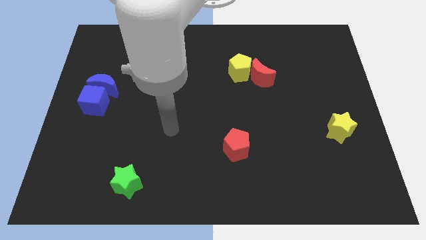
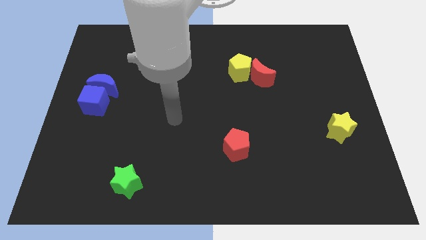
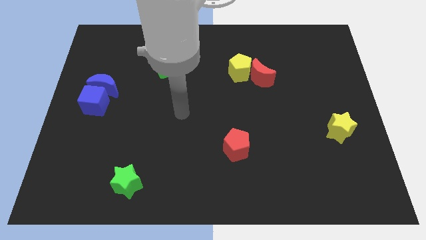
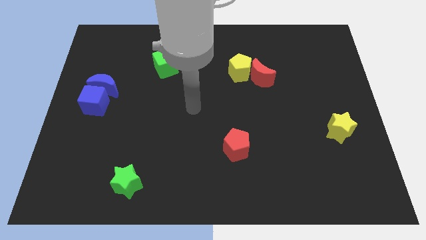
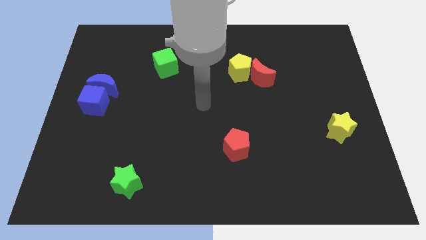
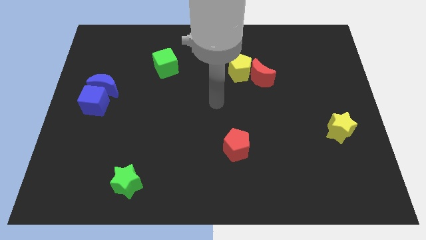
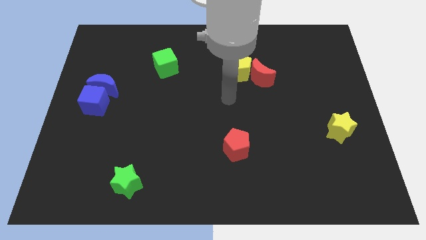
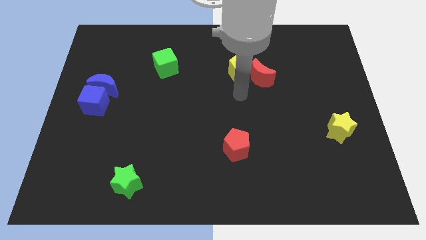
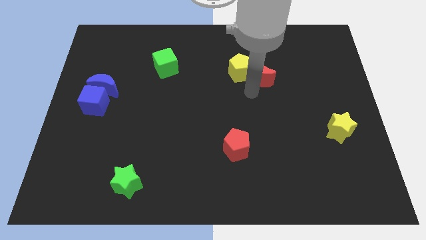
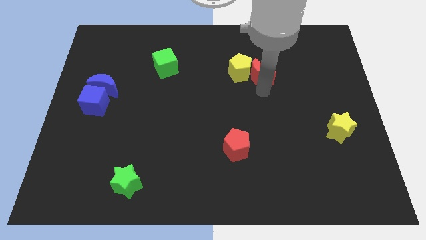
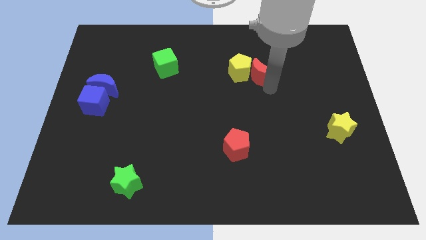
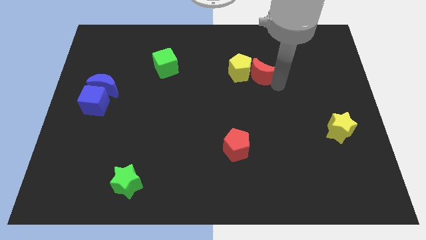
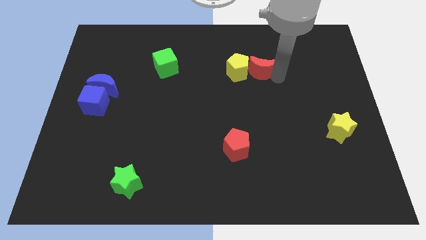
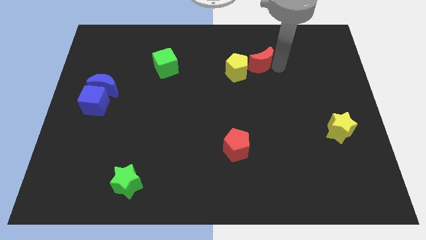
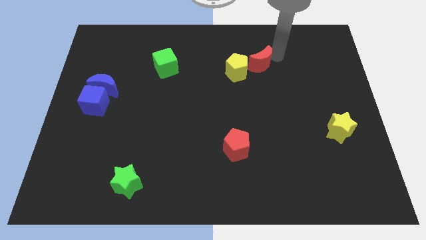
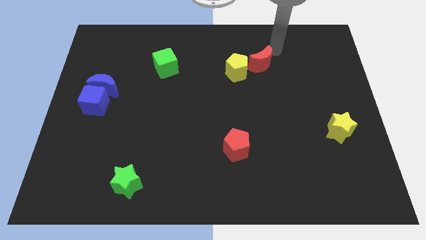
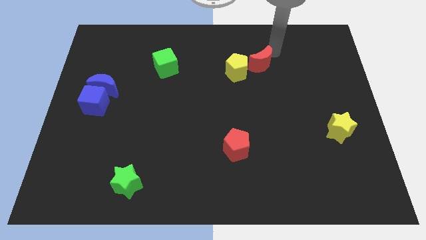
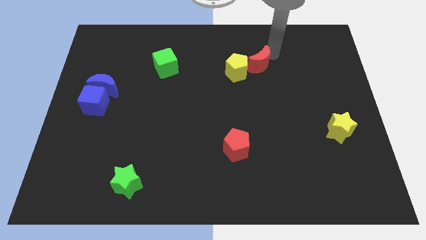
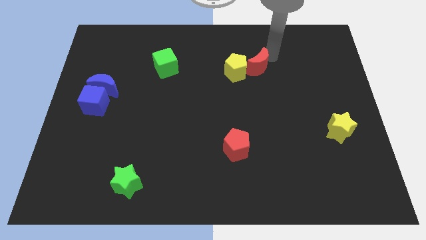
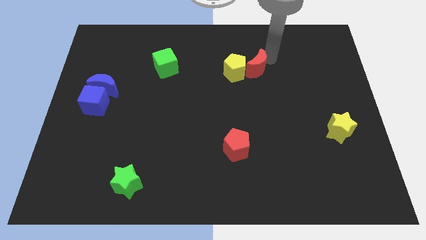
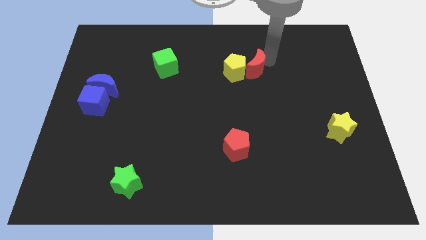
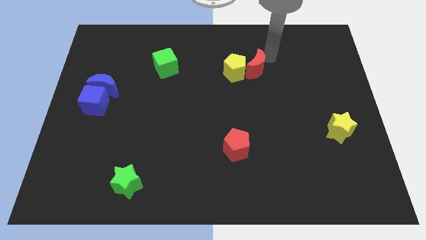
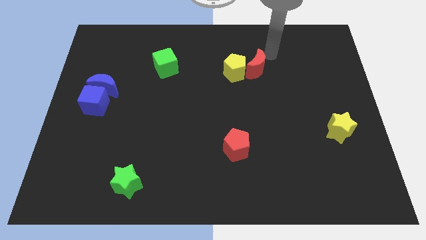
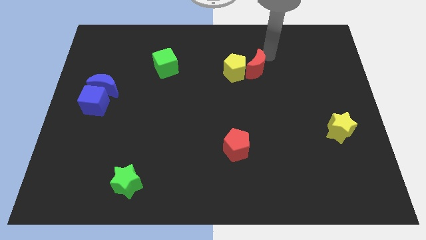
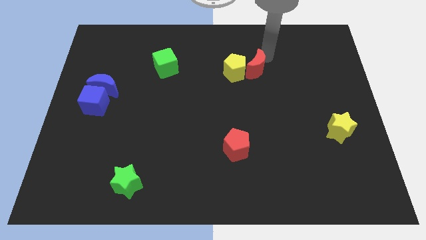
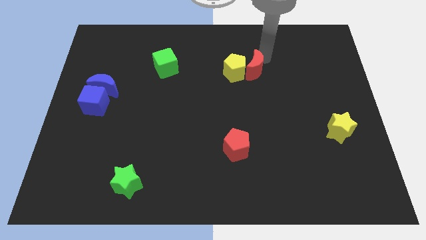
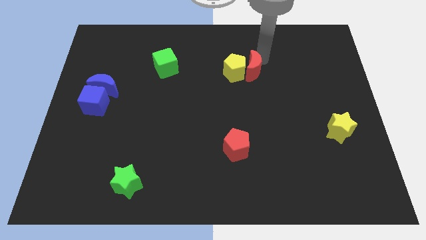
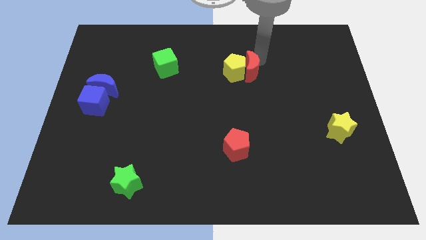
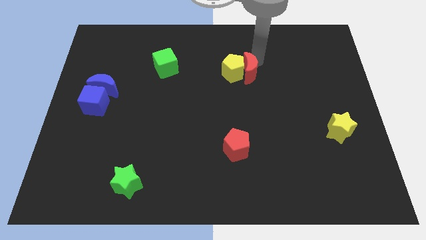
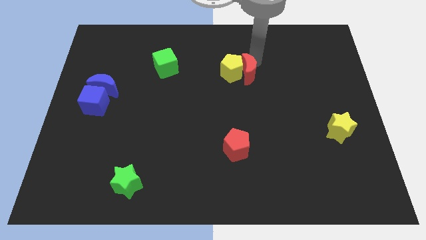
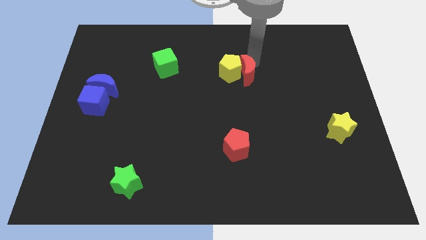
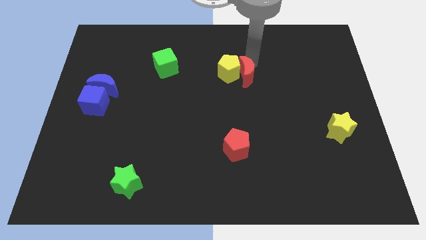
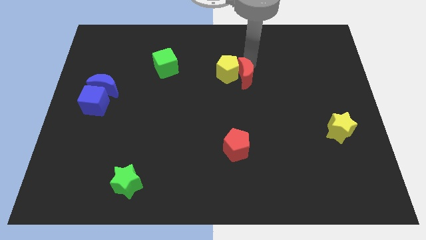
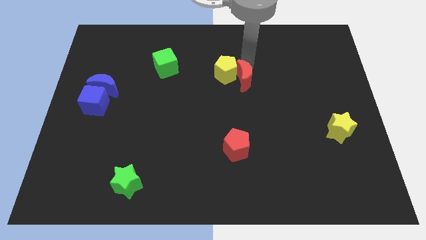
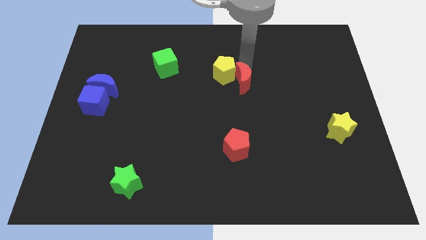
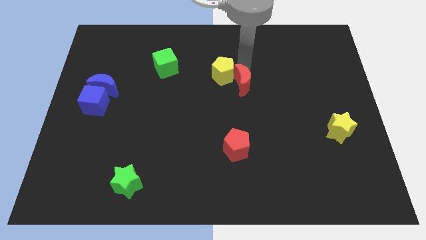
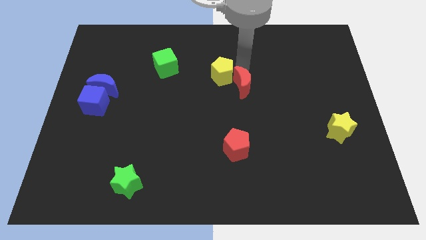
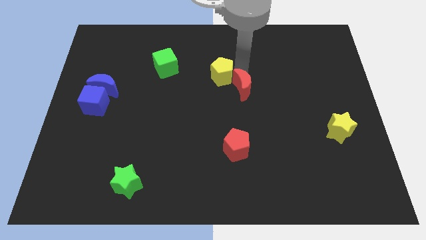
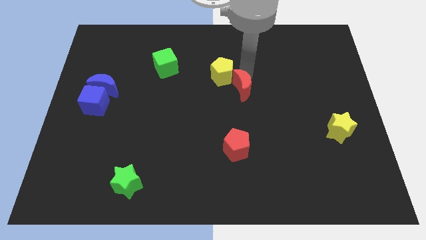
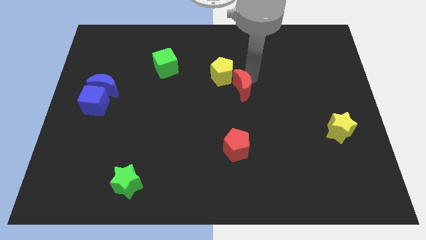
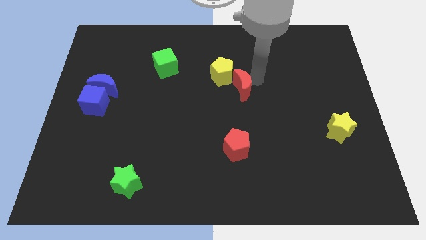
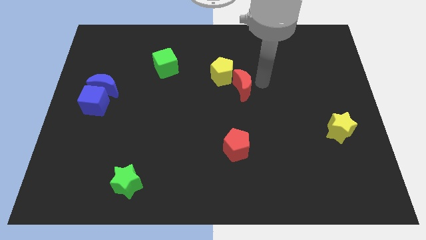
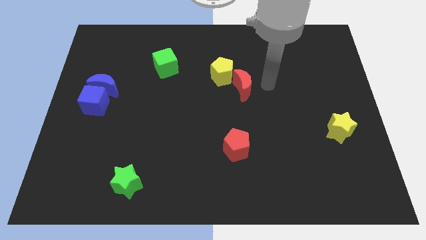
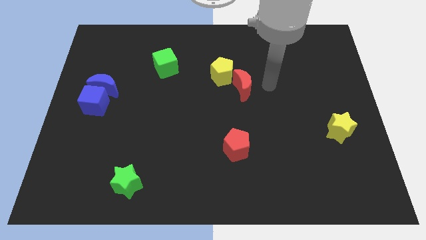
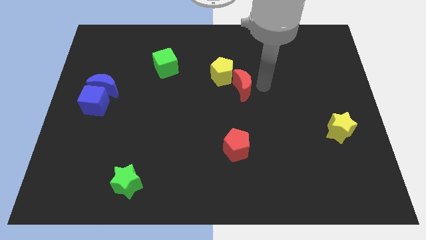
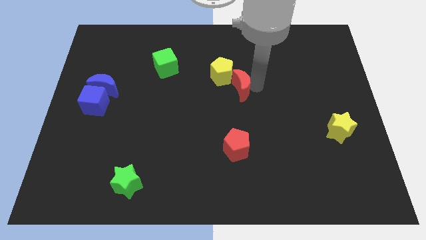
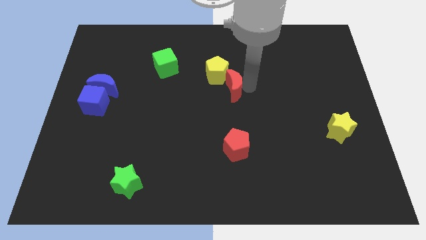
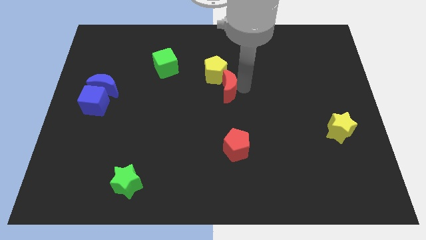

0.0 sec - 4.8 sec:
slide the red moon left somewhat

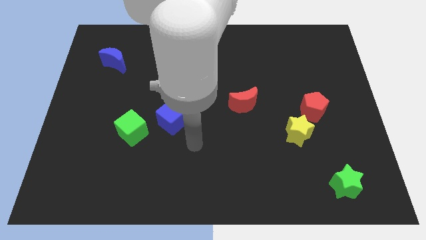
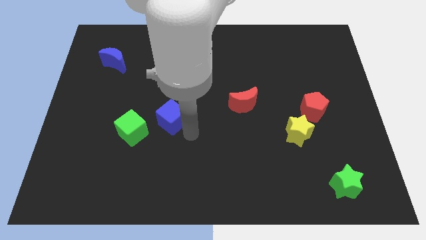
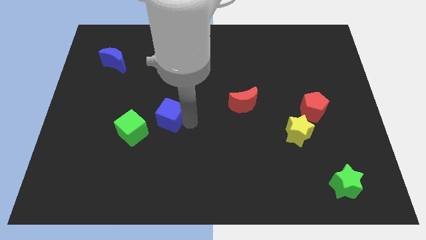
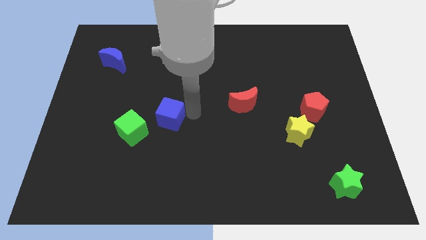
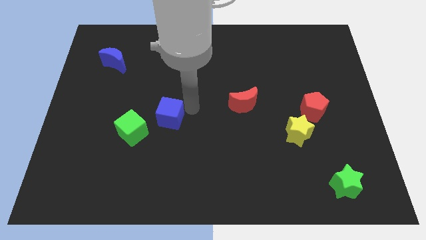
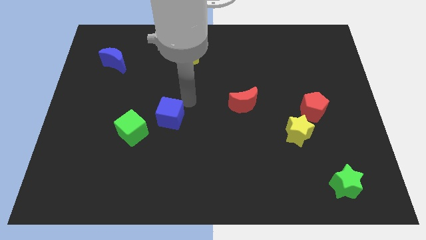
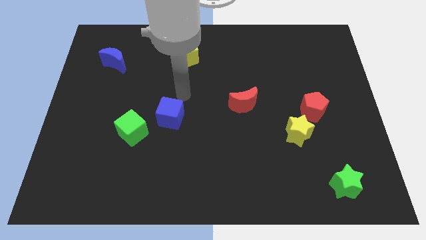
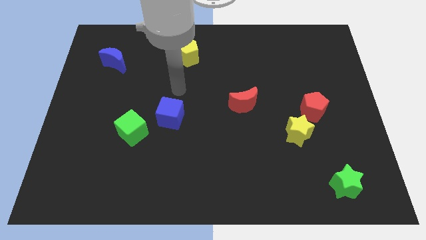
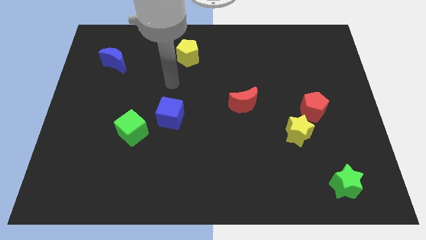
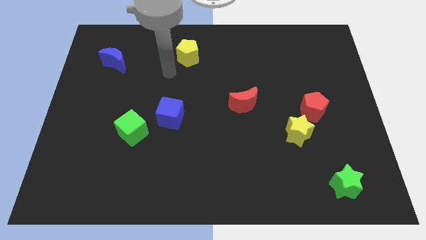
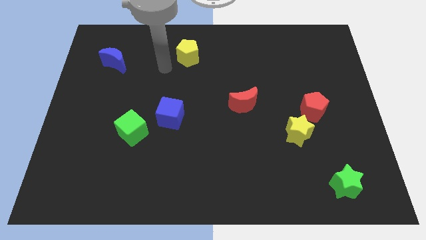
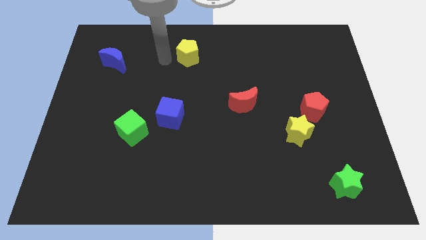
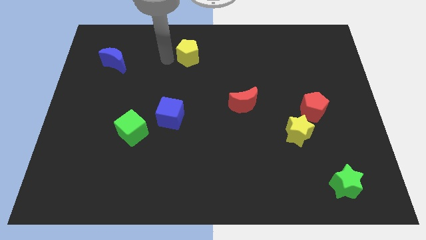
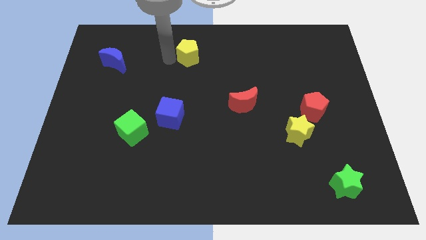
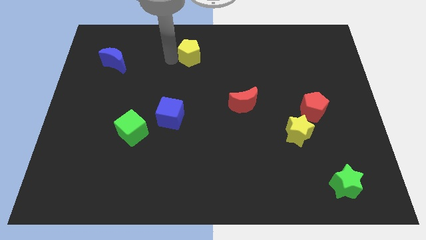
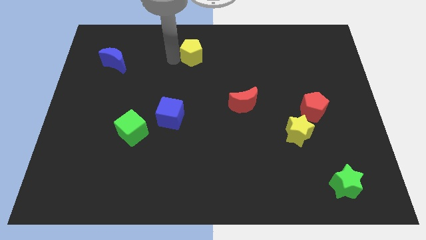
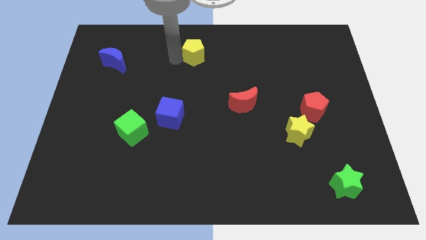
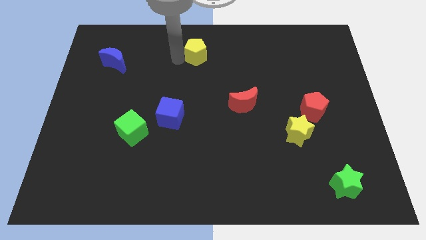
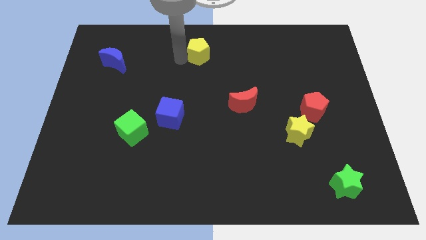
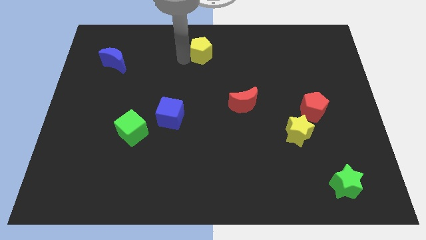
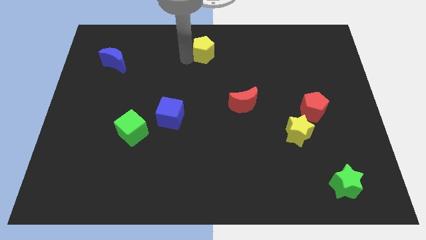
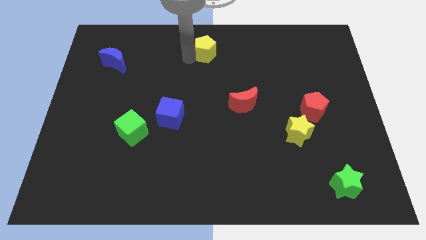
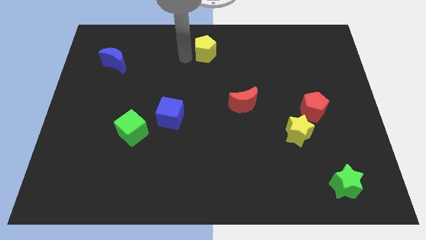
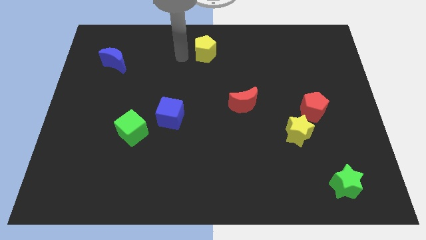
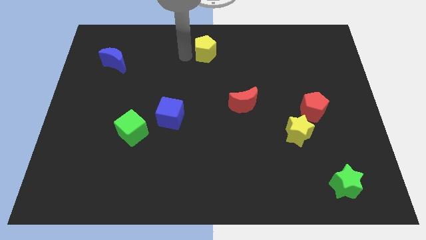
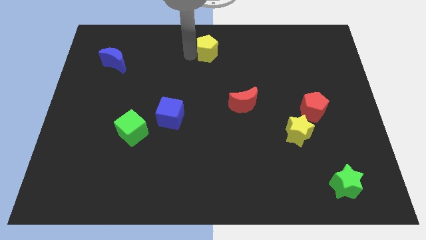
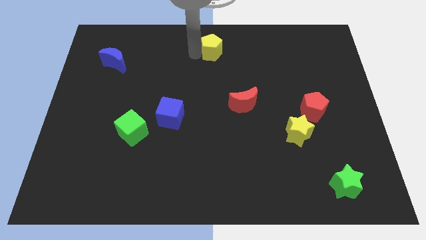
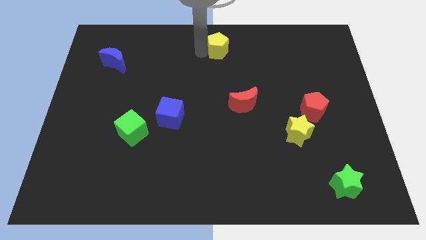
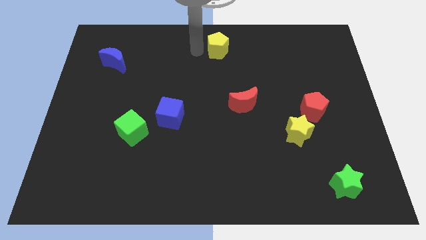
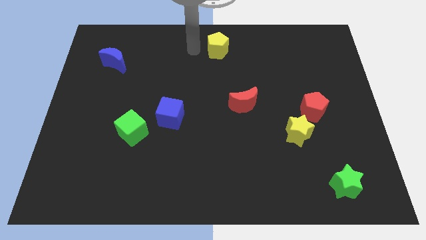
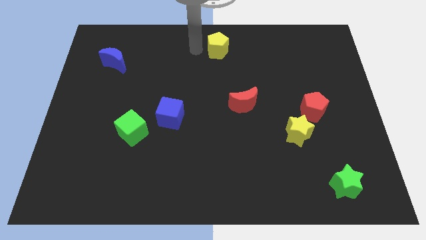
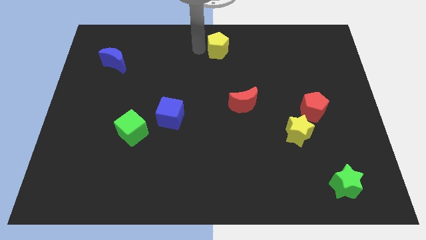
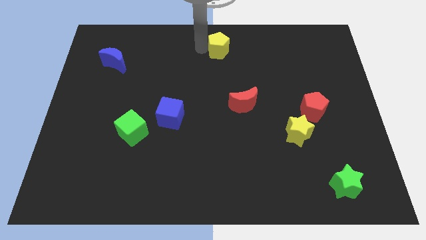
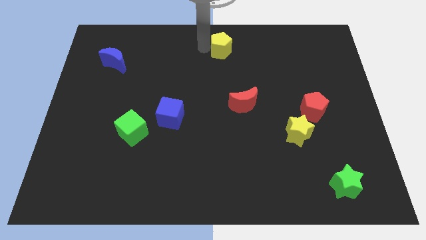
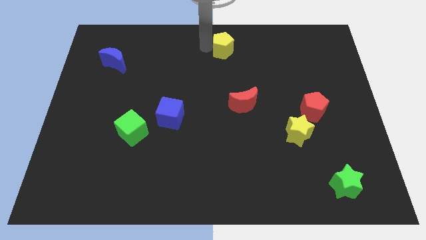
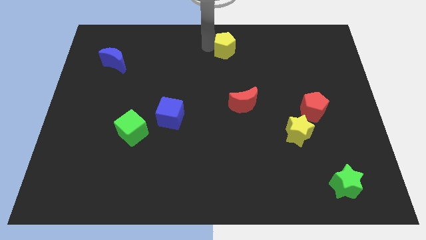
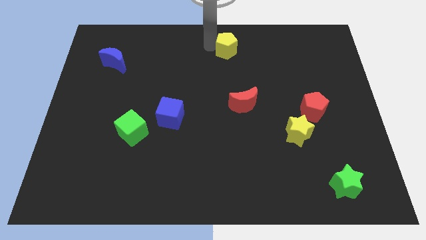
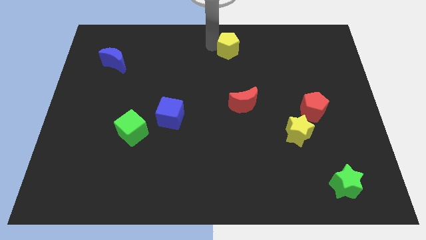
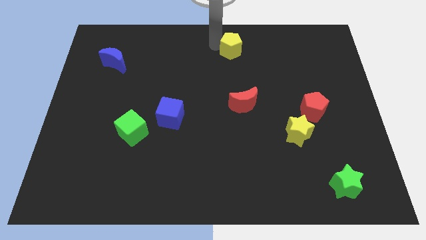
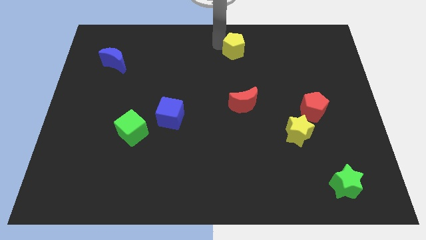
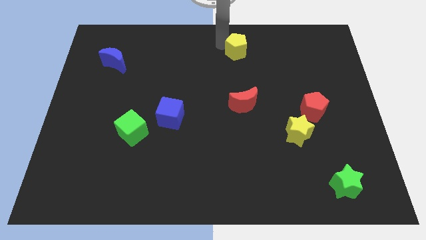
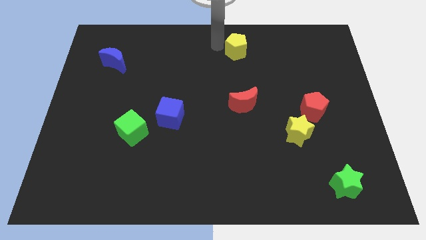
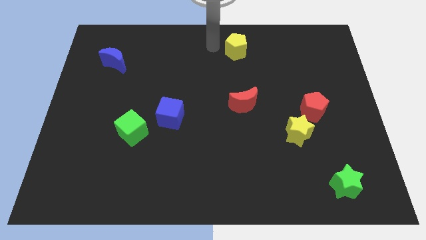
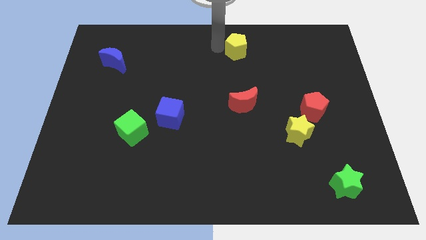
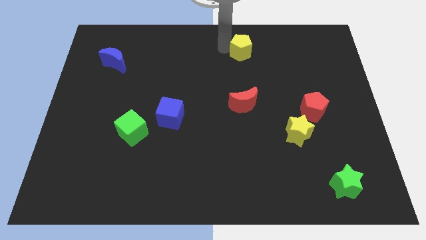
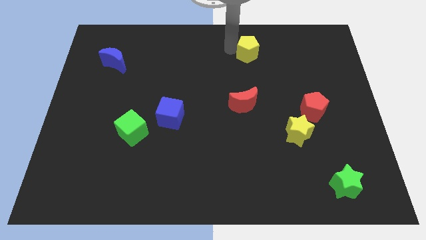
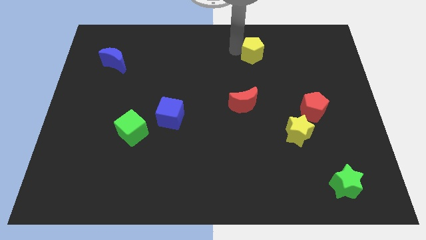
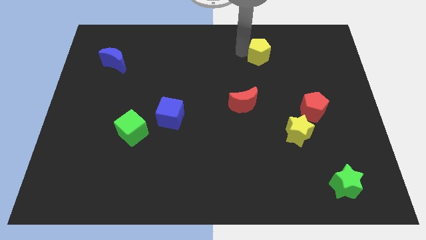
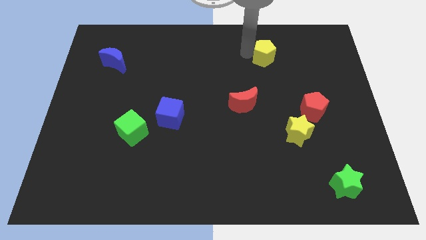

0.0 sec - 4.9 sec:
slide the yellow pentagon to the right
